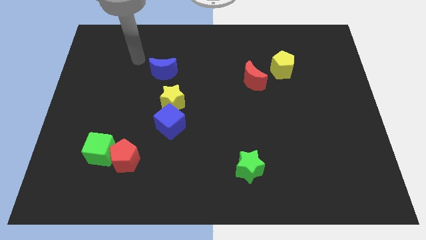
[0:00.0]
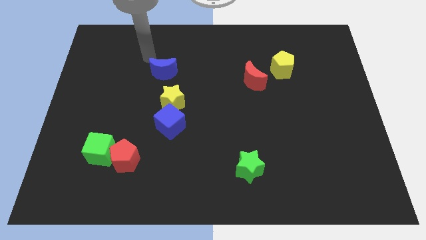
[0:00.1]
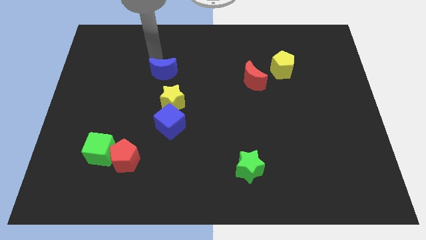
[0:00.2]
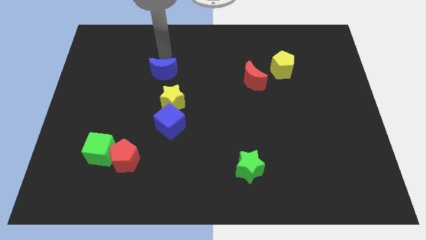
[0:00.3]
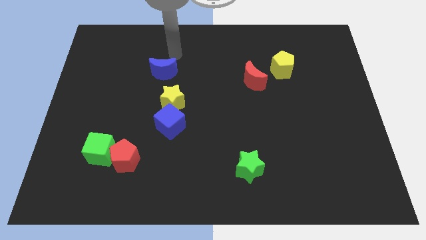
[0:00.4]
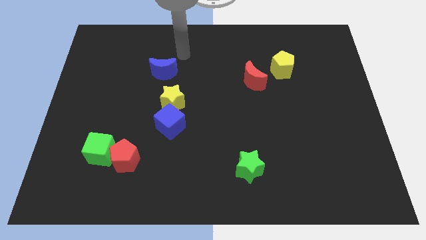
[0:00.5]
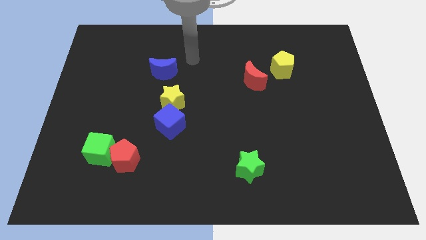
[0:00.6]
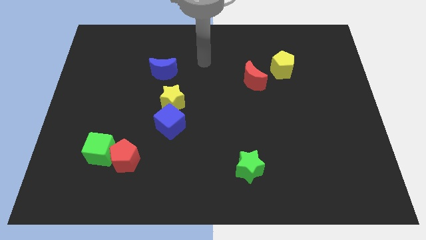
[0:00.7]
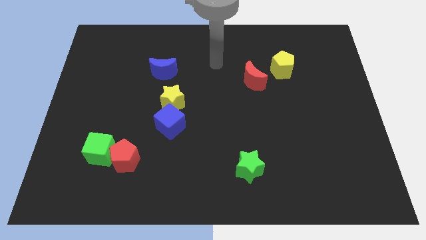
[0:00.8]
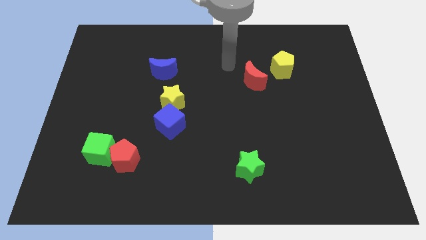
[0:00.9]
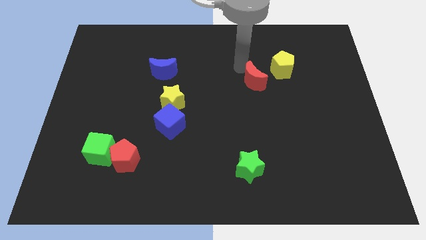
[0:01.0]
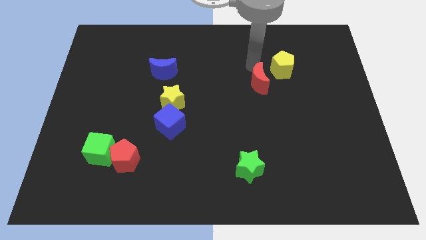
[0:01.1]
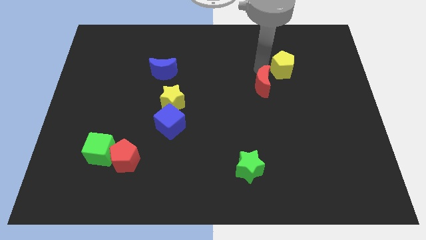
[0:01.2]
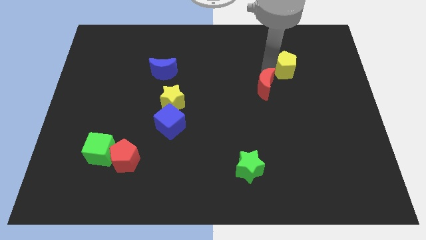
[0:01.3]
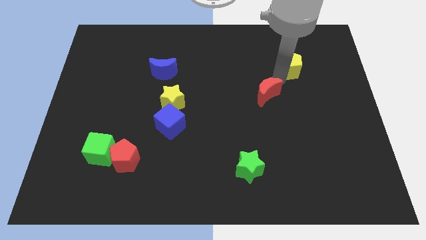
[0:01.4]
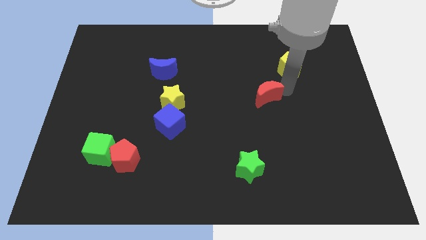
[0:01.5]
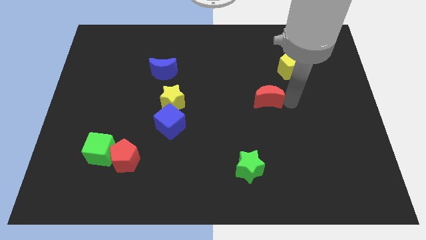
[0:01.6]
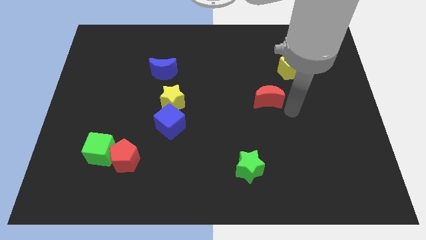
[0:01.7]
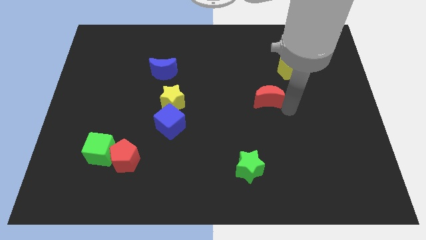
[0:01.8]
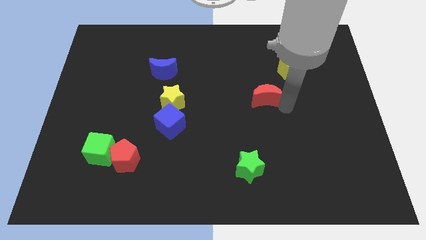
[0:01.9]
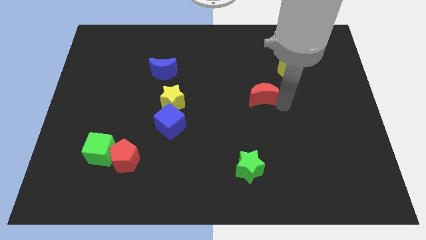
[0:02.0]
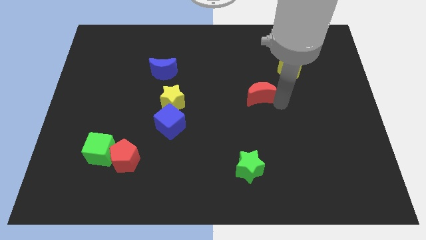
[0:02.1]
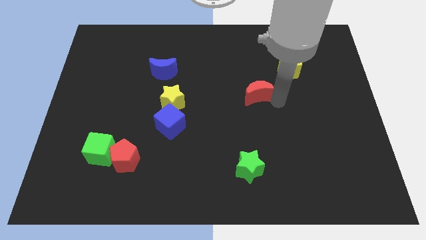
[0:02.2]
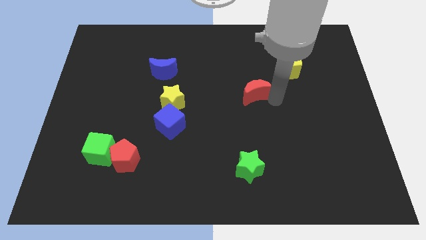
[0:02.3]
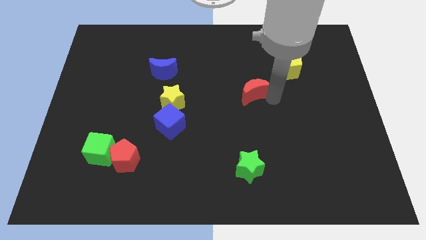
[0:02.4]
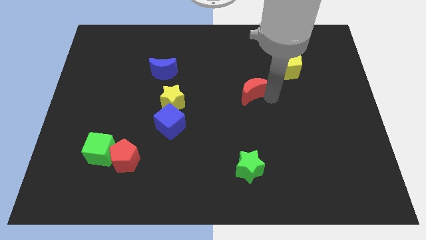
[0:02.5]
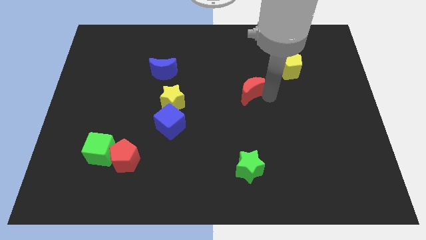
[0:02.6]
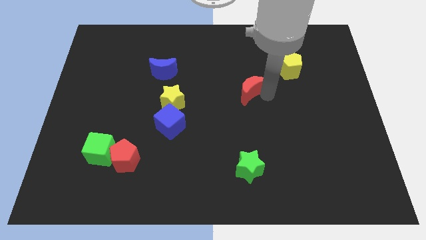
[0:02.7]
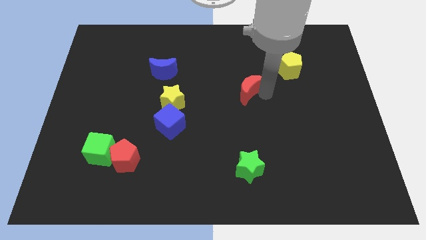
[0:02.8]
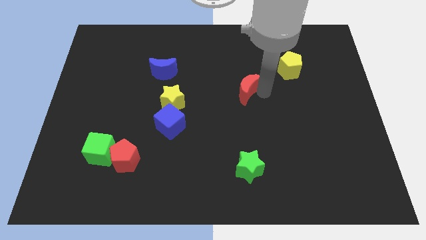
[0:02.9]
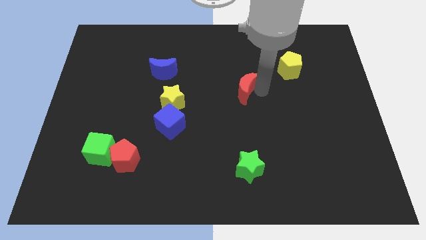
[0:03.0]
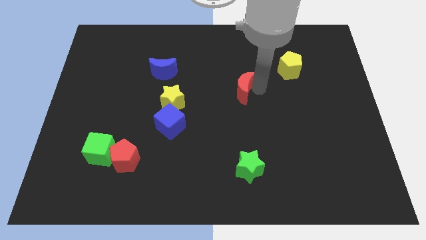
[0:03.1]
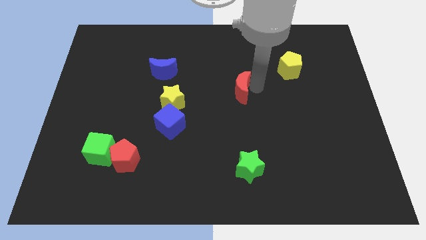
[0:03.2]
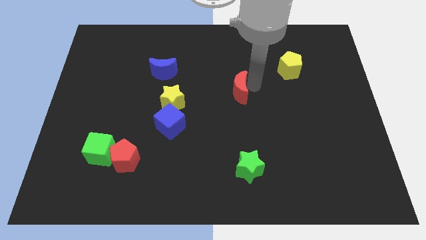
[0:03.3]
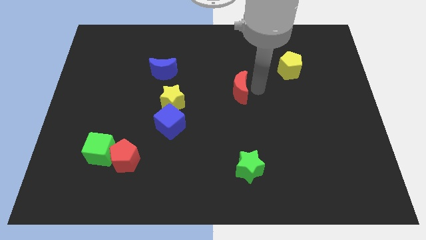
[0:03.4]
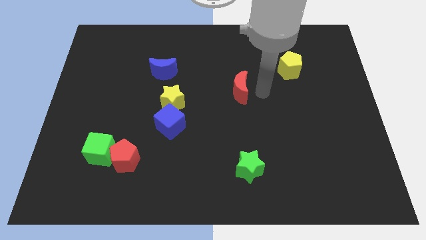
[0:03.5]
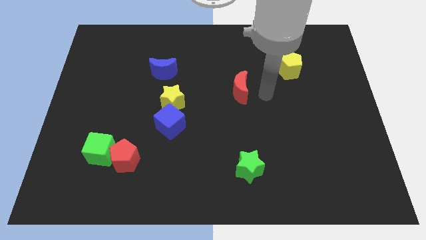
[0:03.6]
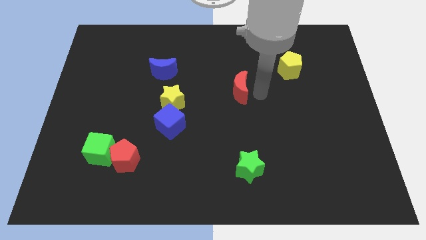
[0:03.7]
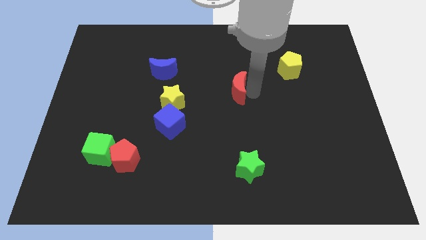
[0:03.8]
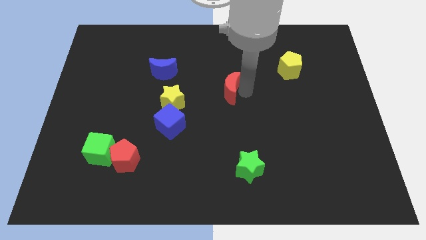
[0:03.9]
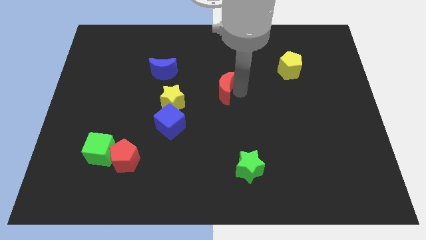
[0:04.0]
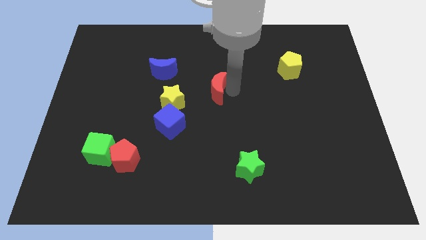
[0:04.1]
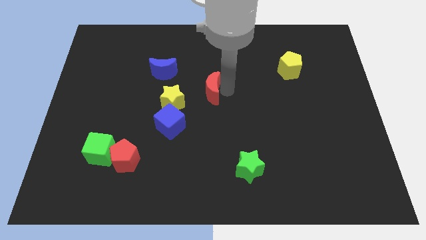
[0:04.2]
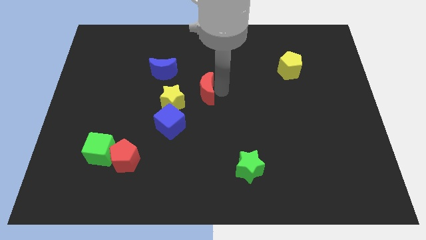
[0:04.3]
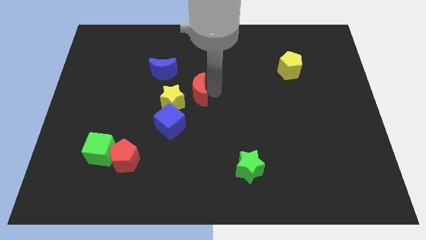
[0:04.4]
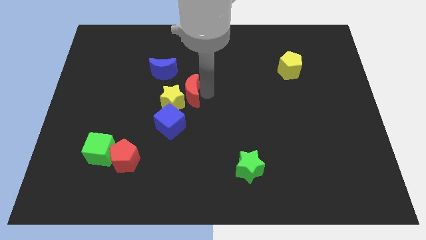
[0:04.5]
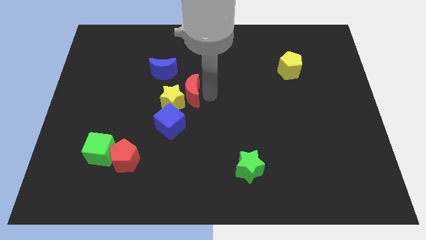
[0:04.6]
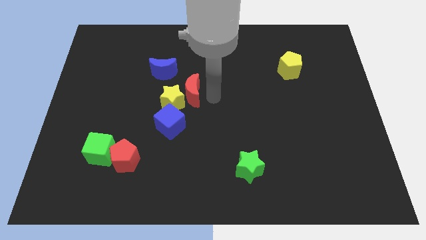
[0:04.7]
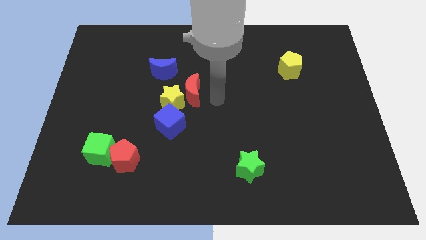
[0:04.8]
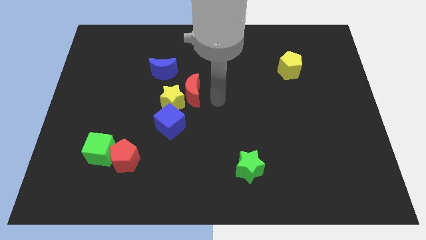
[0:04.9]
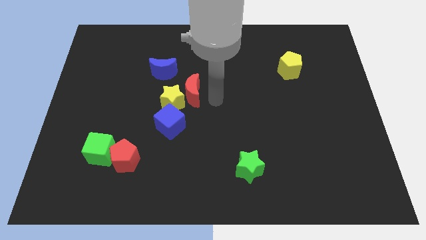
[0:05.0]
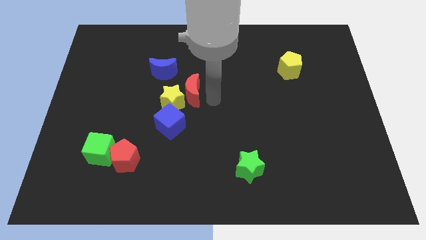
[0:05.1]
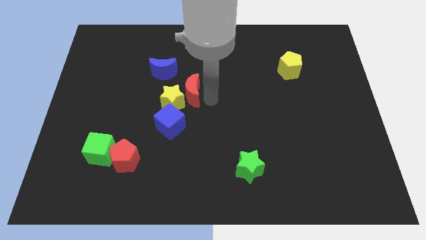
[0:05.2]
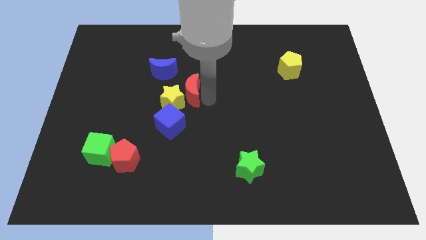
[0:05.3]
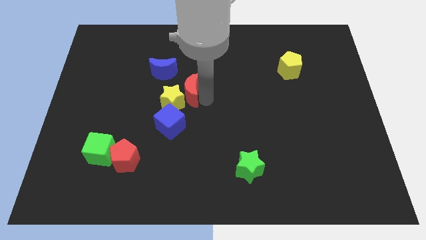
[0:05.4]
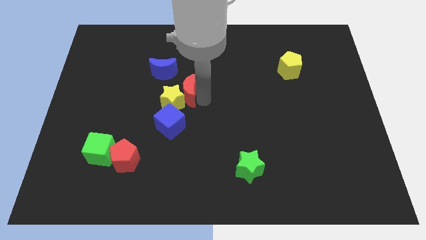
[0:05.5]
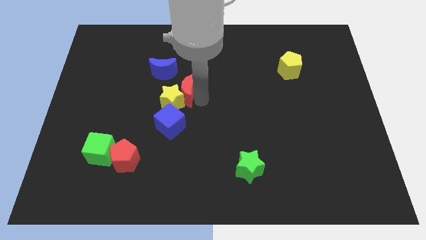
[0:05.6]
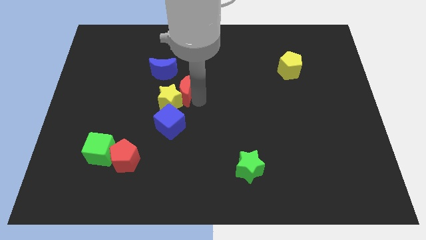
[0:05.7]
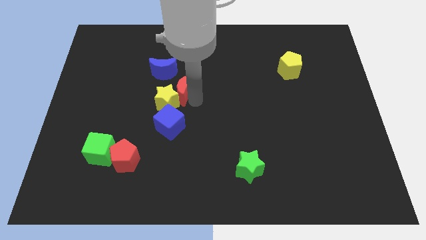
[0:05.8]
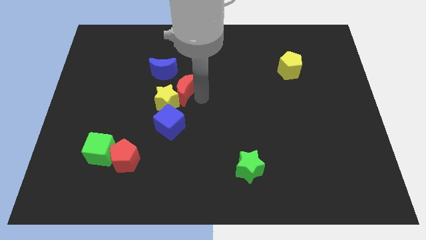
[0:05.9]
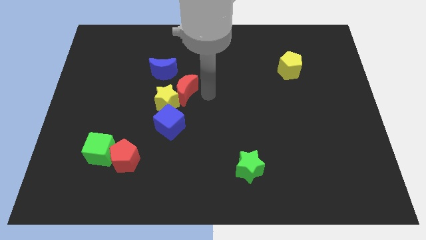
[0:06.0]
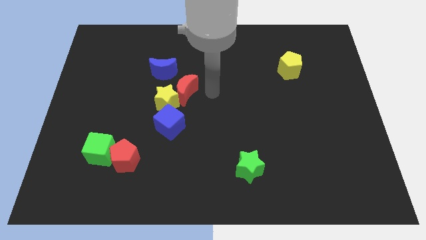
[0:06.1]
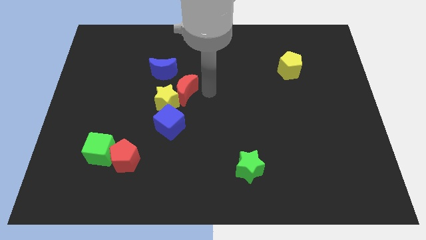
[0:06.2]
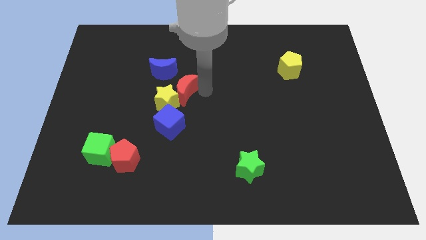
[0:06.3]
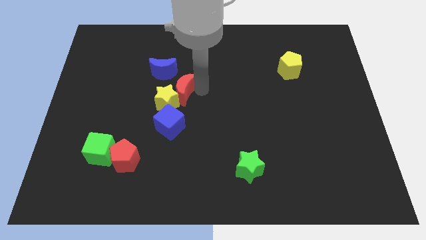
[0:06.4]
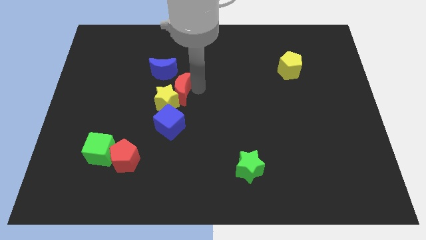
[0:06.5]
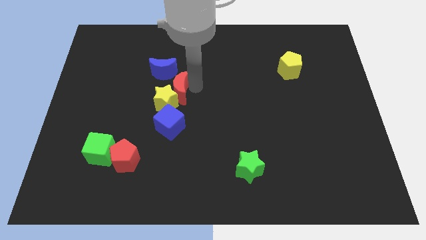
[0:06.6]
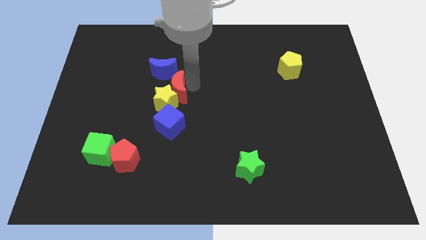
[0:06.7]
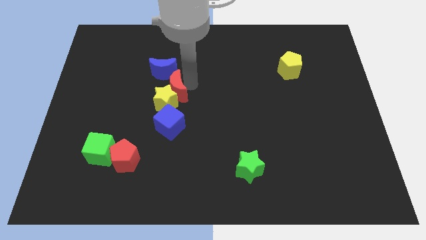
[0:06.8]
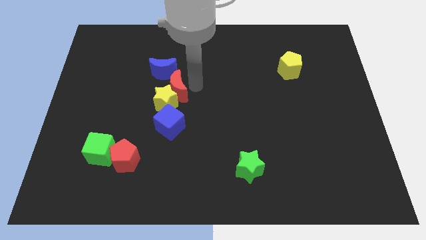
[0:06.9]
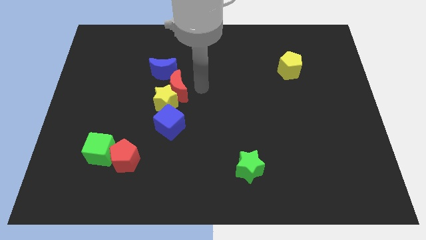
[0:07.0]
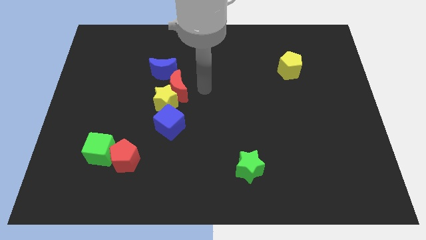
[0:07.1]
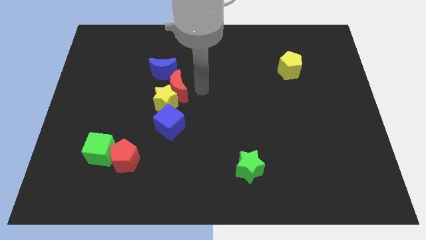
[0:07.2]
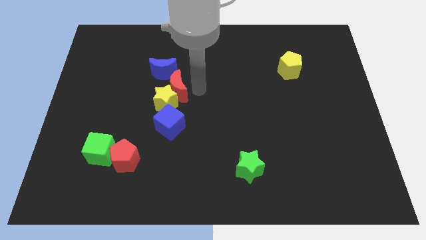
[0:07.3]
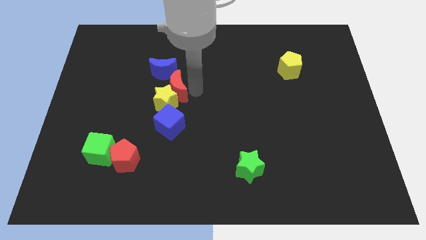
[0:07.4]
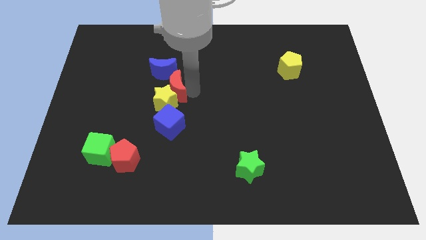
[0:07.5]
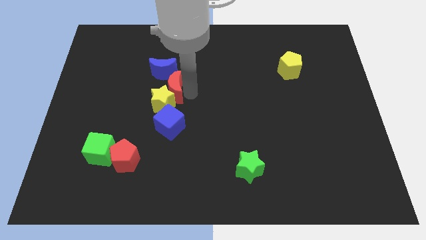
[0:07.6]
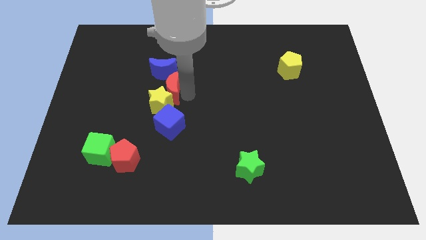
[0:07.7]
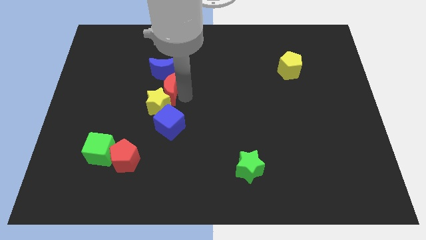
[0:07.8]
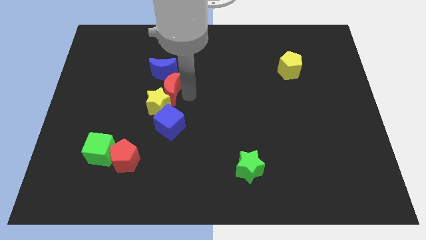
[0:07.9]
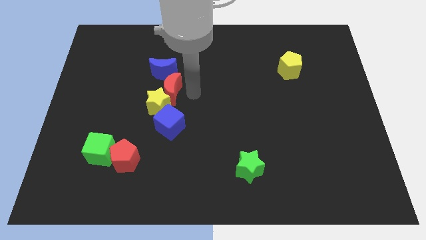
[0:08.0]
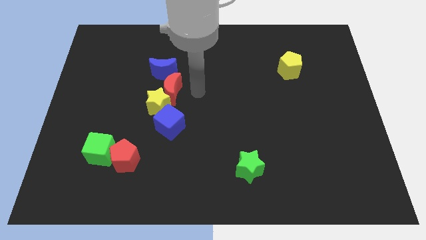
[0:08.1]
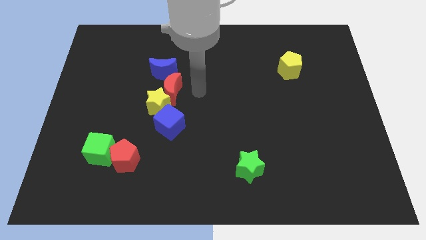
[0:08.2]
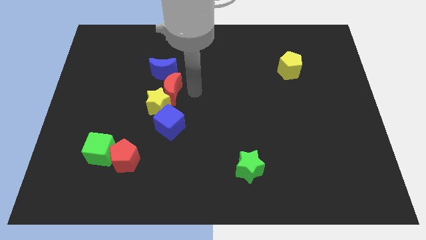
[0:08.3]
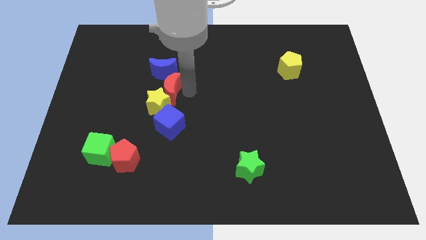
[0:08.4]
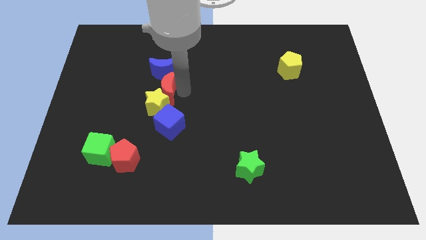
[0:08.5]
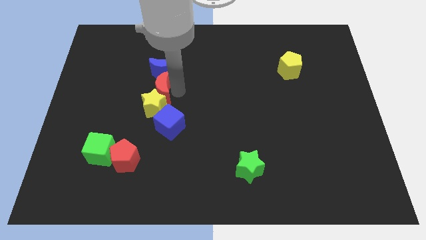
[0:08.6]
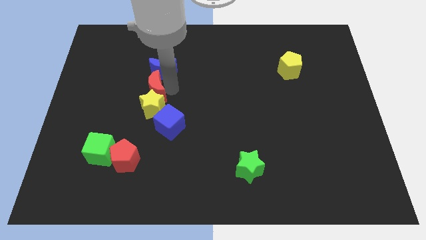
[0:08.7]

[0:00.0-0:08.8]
push the red moon to the top left side of the blue cube
